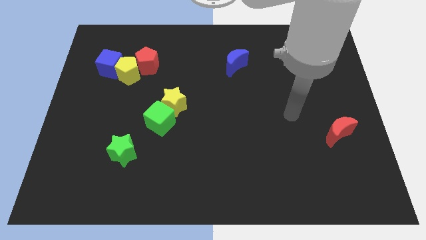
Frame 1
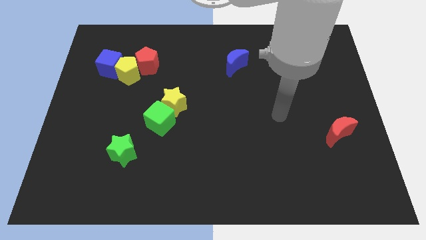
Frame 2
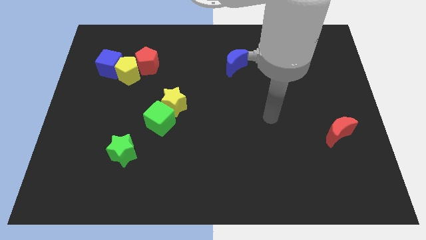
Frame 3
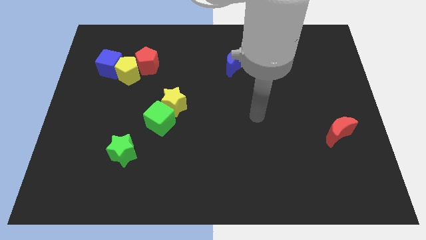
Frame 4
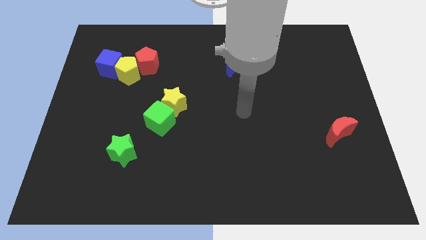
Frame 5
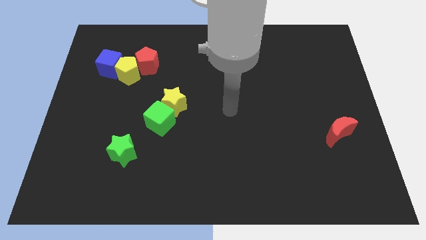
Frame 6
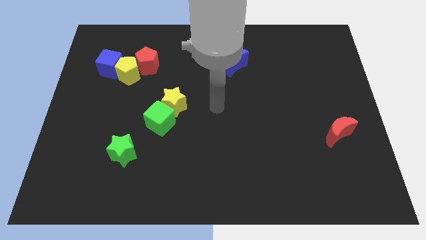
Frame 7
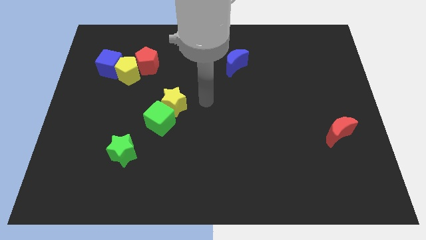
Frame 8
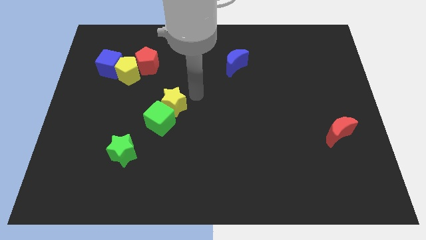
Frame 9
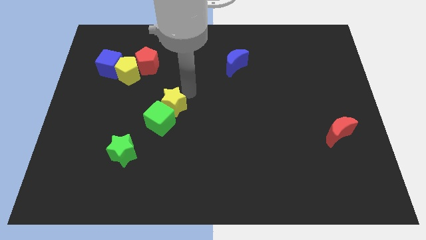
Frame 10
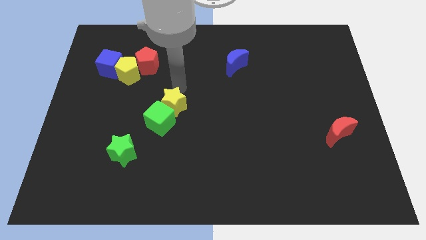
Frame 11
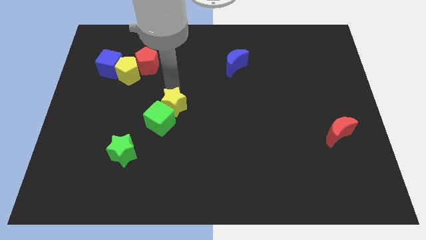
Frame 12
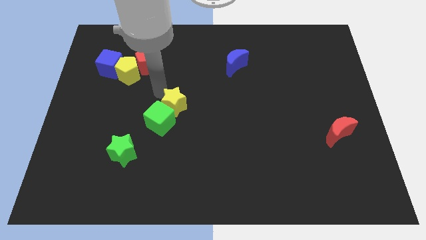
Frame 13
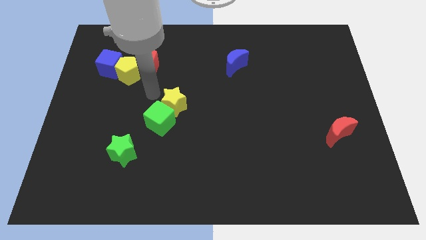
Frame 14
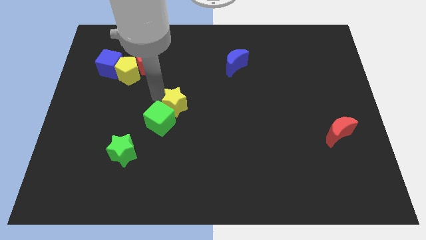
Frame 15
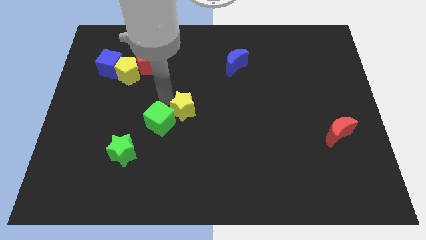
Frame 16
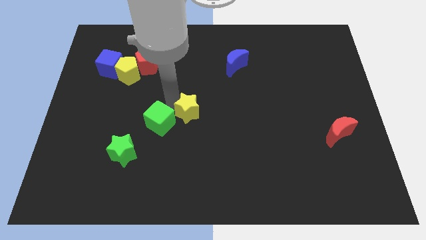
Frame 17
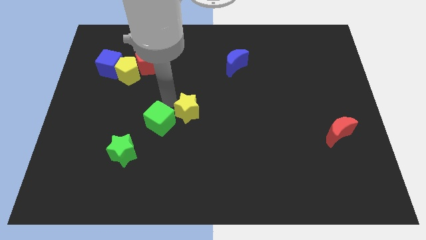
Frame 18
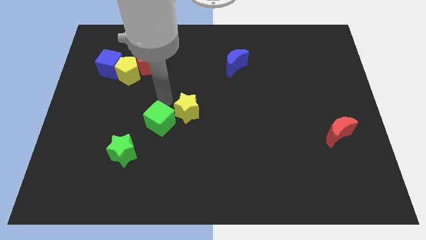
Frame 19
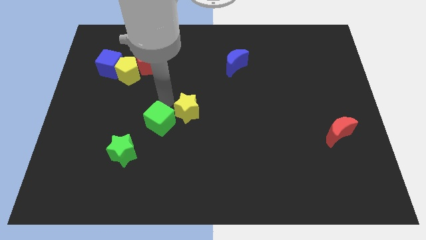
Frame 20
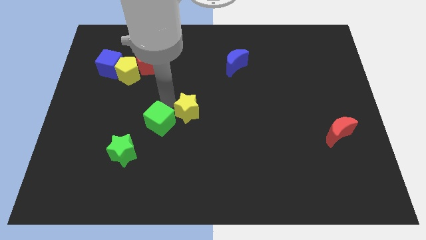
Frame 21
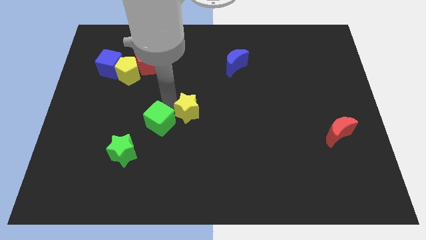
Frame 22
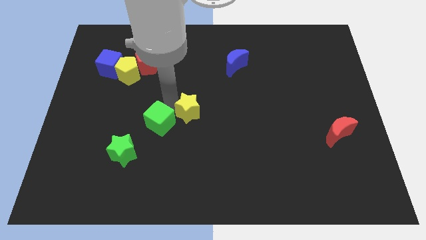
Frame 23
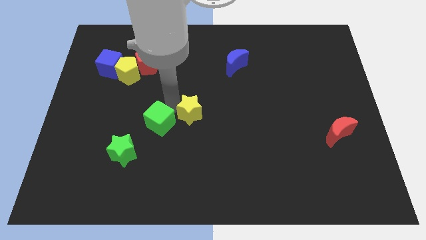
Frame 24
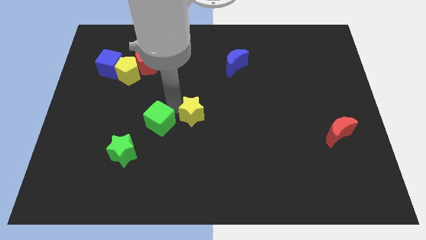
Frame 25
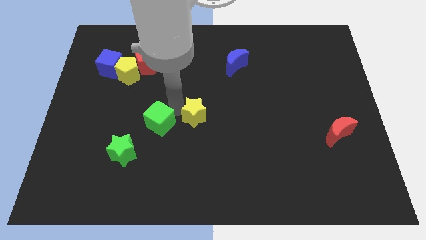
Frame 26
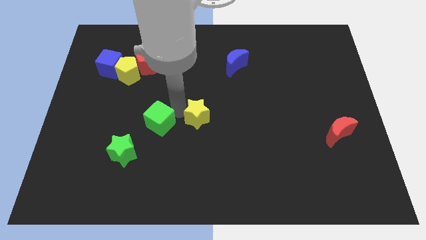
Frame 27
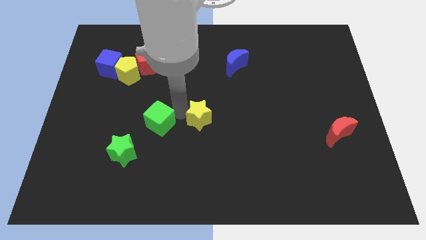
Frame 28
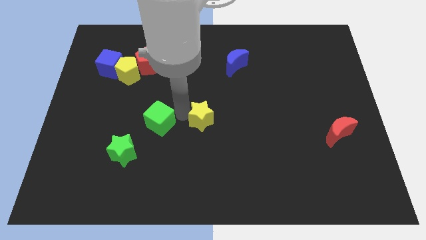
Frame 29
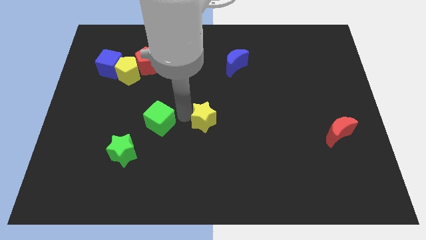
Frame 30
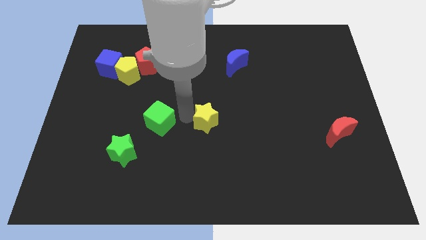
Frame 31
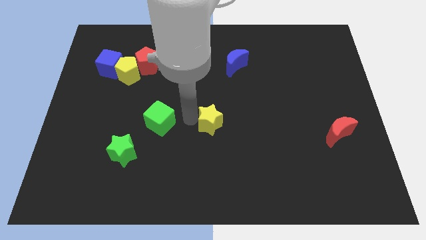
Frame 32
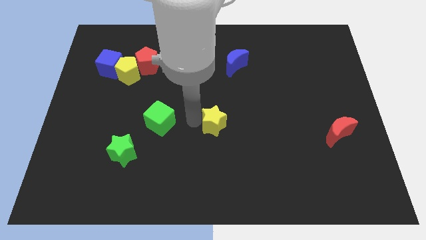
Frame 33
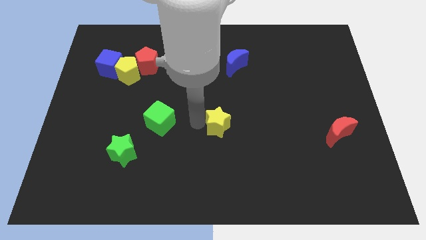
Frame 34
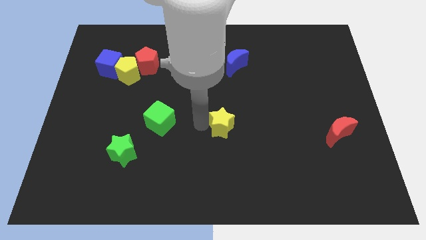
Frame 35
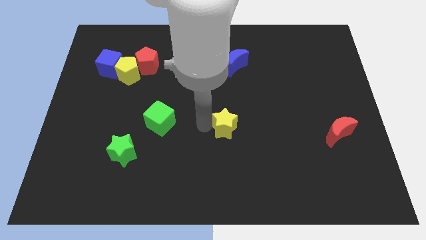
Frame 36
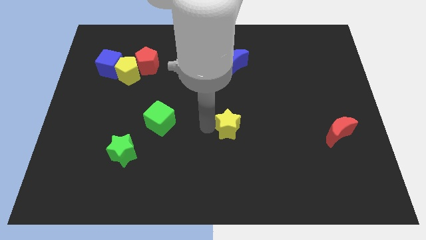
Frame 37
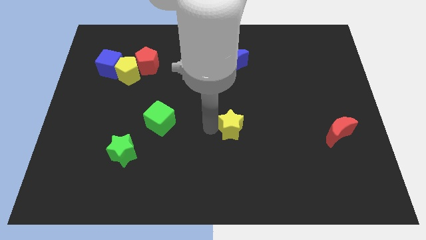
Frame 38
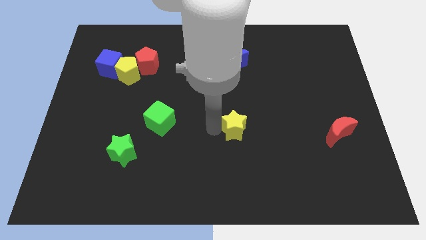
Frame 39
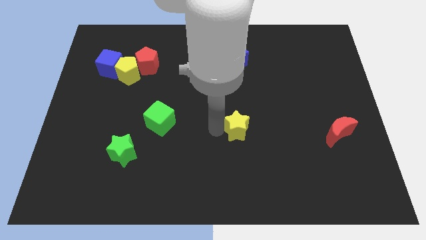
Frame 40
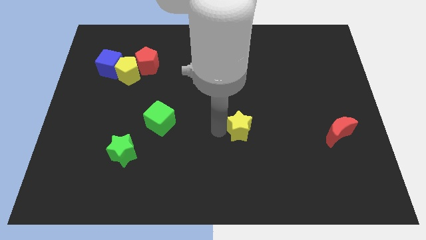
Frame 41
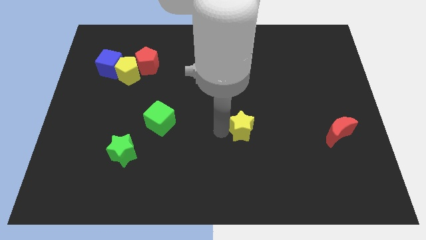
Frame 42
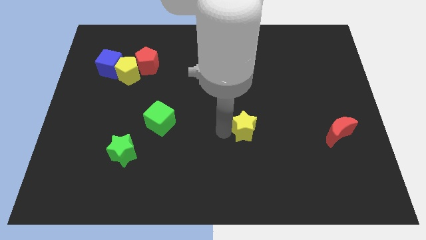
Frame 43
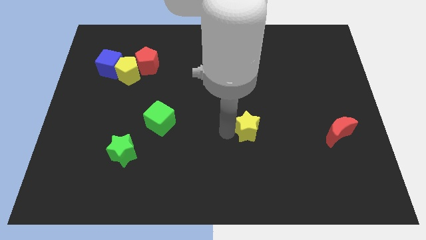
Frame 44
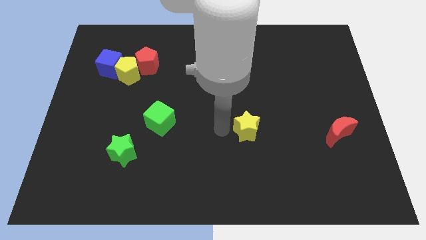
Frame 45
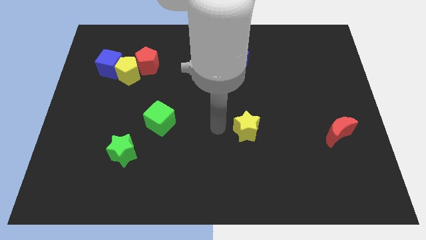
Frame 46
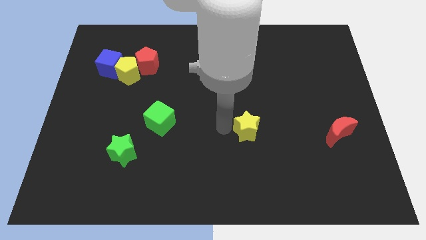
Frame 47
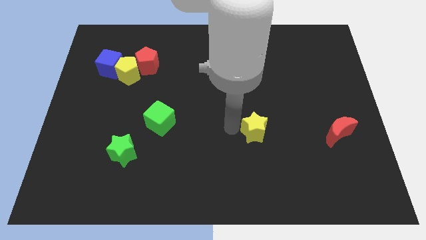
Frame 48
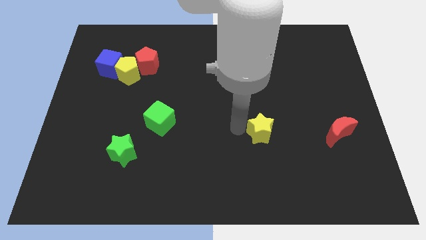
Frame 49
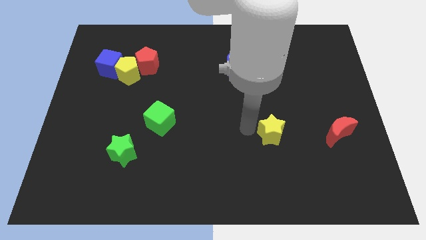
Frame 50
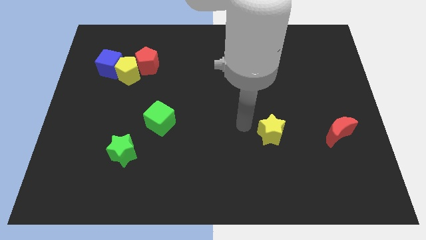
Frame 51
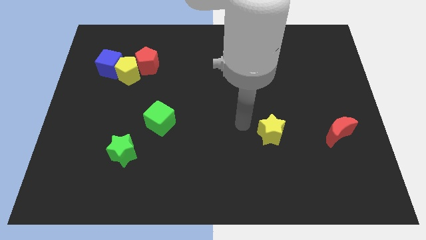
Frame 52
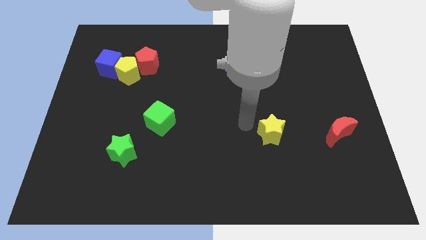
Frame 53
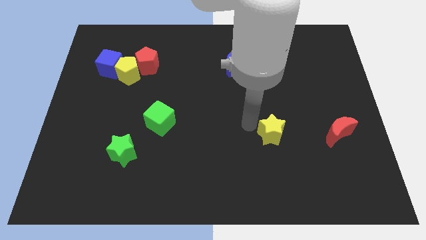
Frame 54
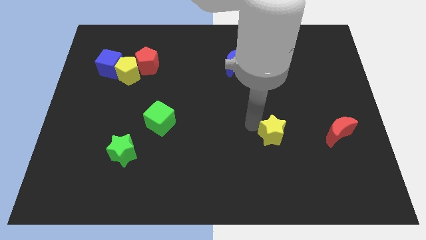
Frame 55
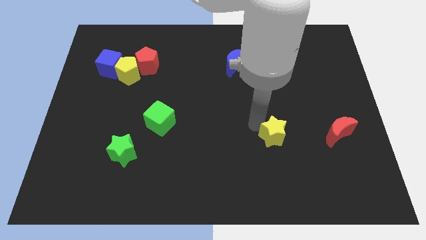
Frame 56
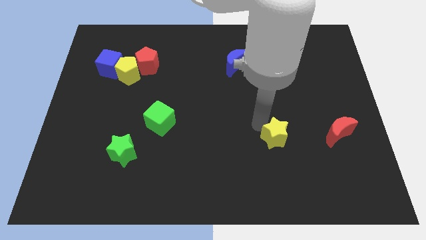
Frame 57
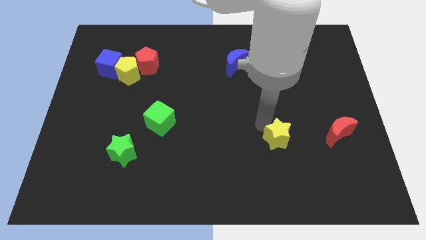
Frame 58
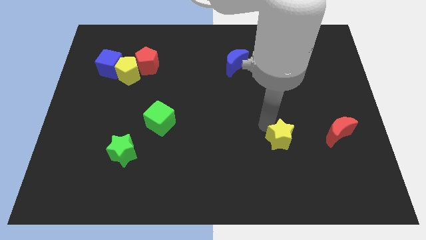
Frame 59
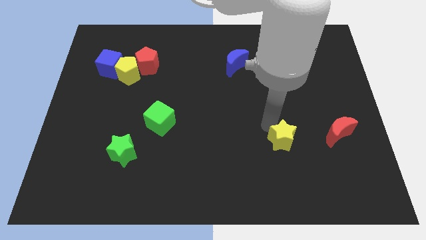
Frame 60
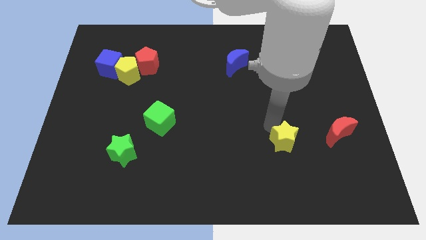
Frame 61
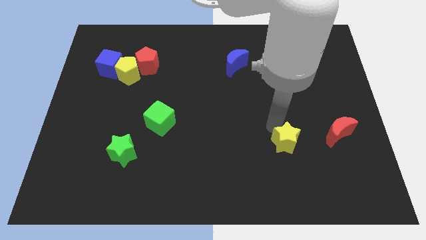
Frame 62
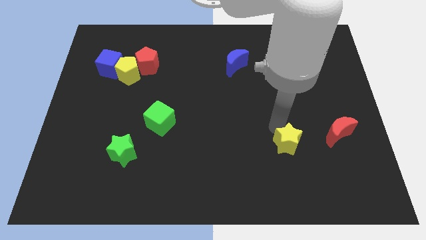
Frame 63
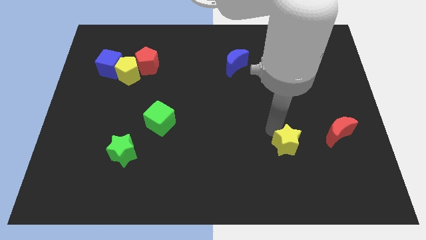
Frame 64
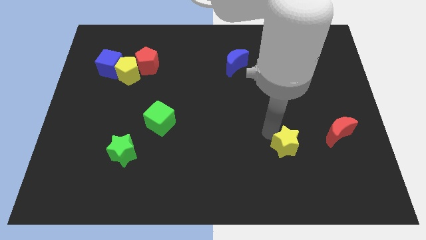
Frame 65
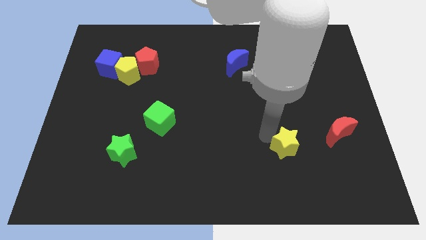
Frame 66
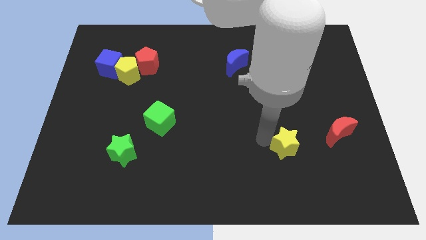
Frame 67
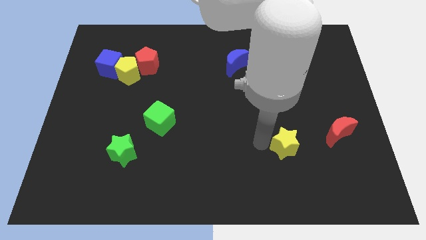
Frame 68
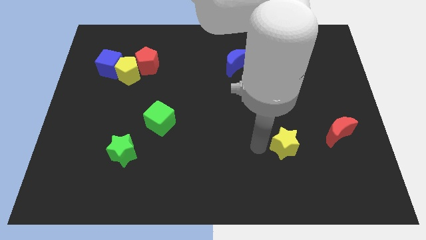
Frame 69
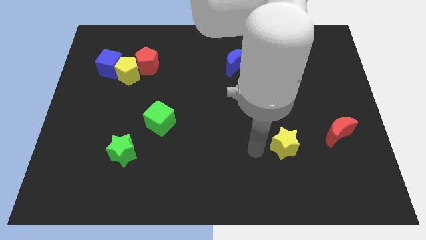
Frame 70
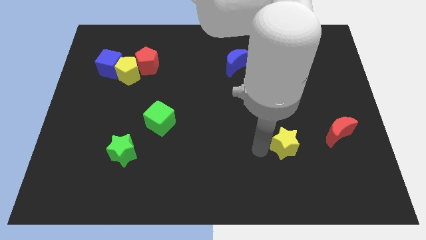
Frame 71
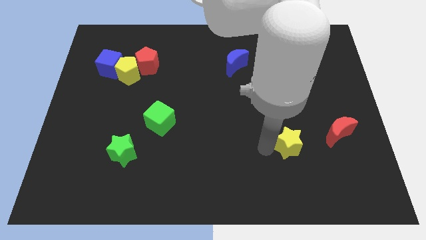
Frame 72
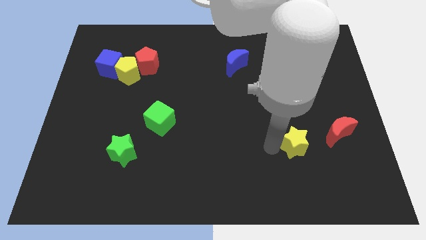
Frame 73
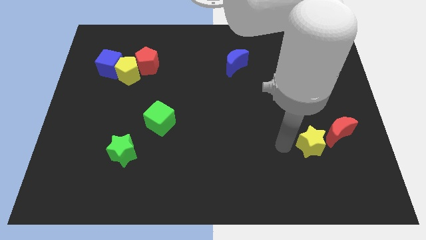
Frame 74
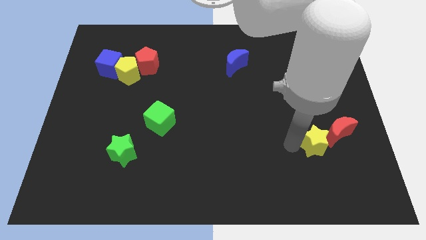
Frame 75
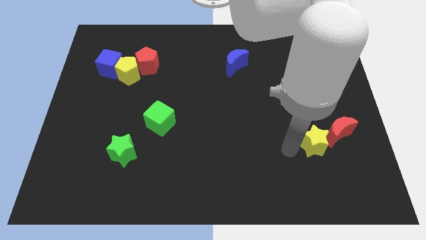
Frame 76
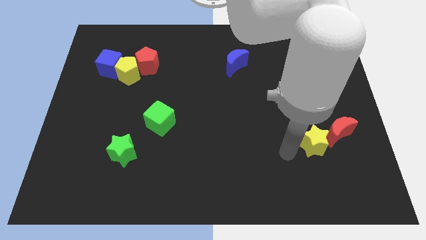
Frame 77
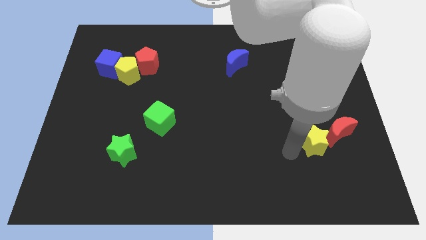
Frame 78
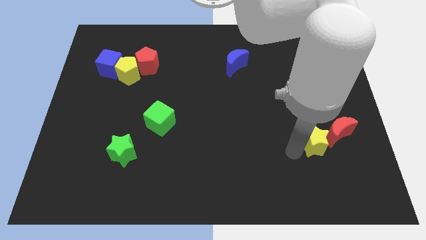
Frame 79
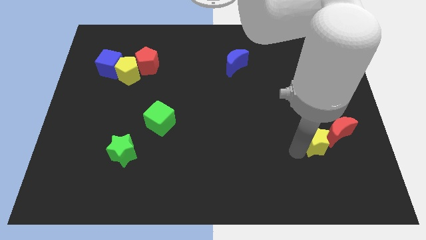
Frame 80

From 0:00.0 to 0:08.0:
move the yellow star towards the red moon
